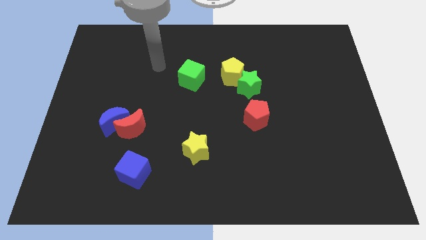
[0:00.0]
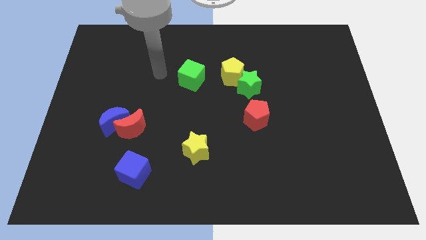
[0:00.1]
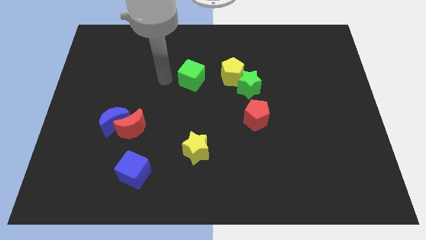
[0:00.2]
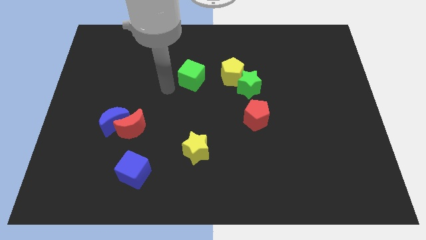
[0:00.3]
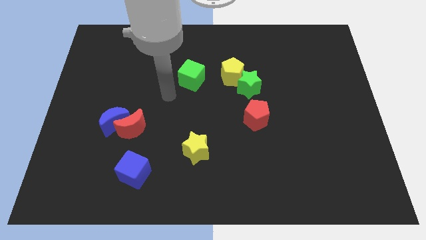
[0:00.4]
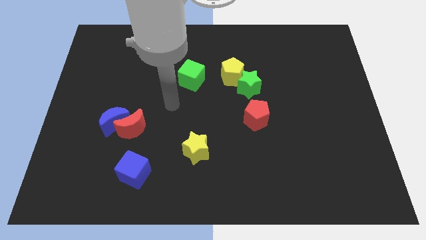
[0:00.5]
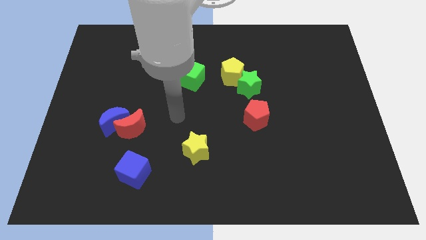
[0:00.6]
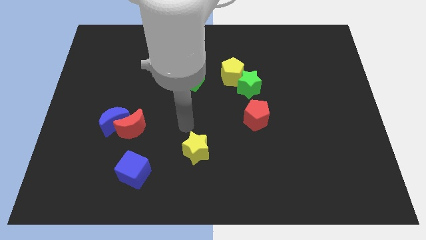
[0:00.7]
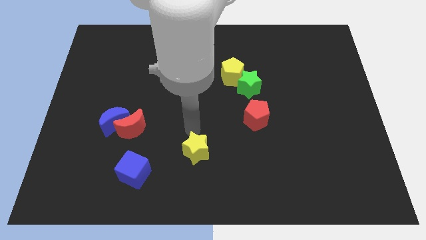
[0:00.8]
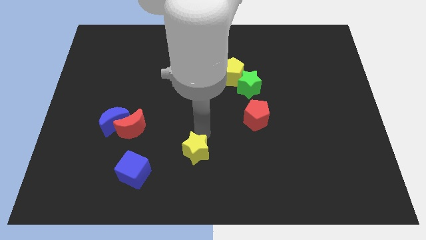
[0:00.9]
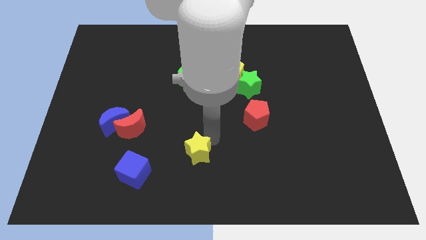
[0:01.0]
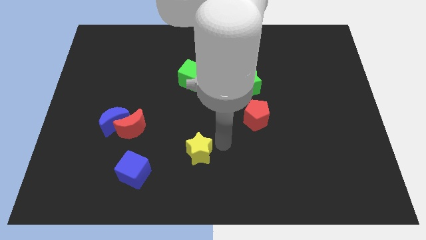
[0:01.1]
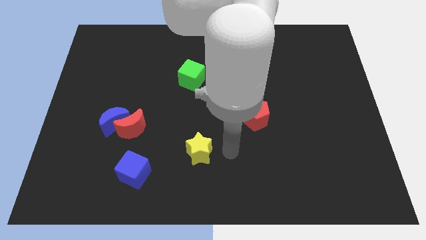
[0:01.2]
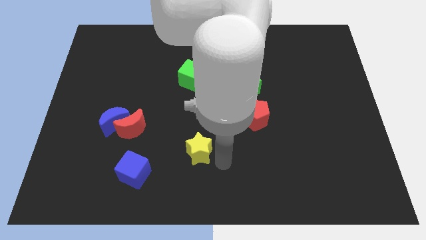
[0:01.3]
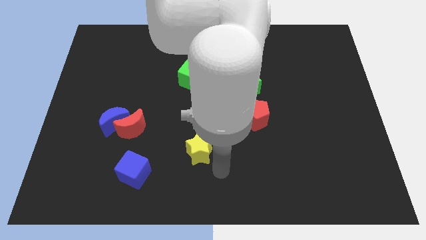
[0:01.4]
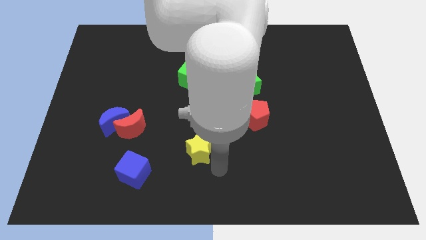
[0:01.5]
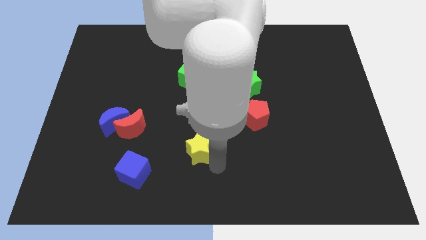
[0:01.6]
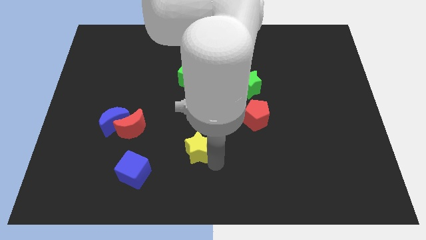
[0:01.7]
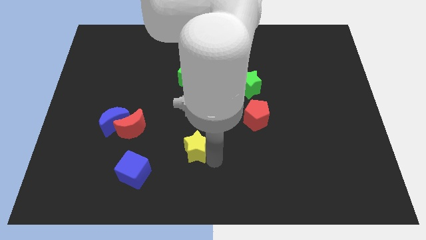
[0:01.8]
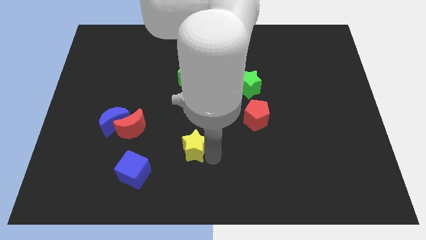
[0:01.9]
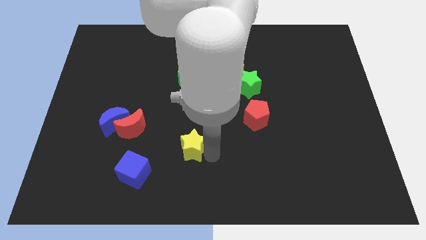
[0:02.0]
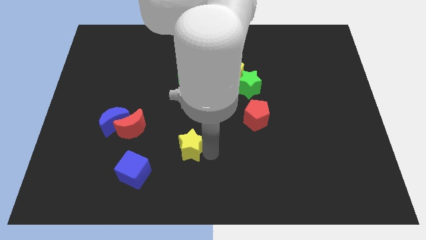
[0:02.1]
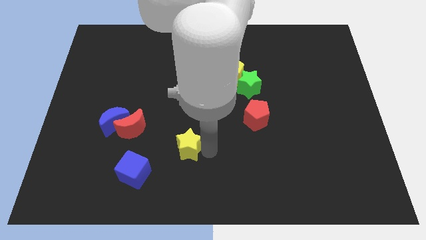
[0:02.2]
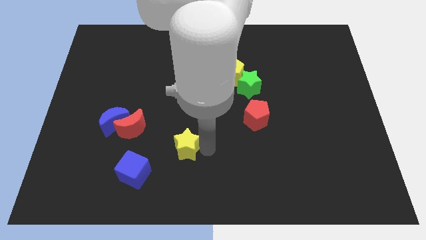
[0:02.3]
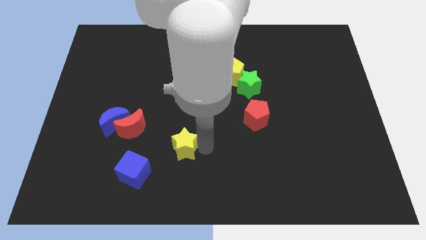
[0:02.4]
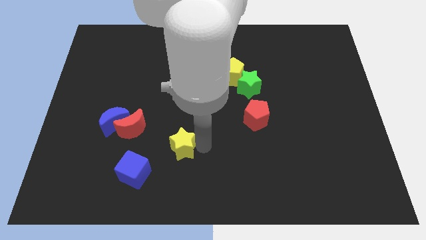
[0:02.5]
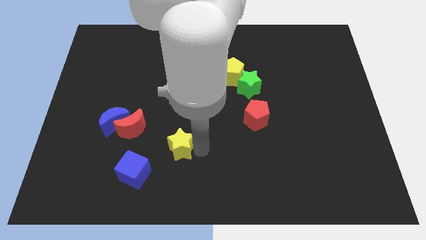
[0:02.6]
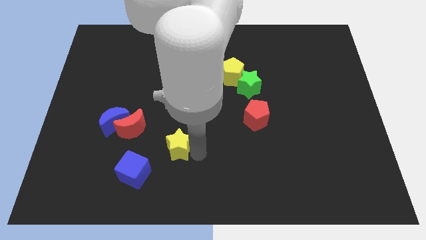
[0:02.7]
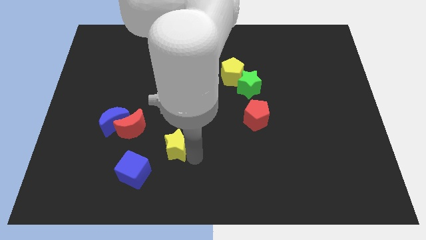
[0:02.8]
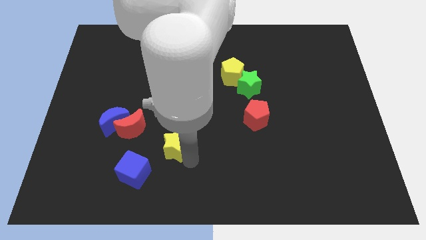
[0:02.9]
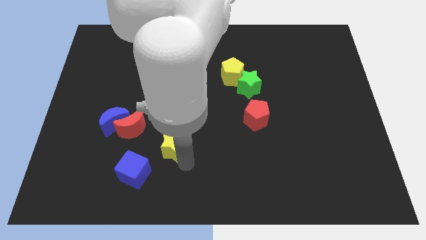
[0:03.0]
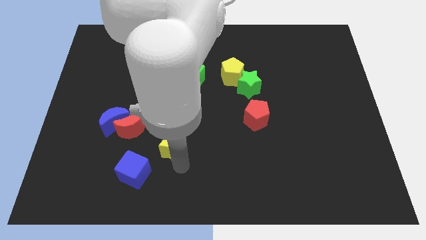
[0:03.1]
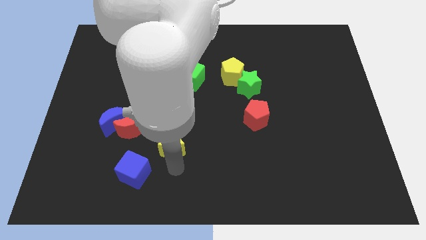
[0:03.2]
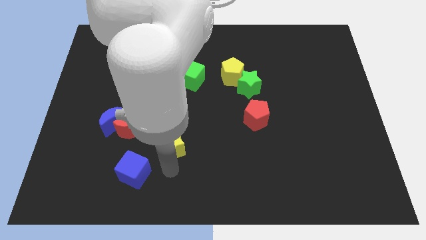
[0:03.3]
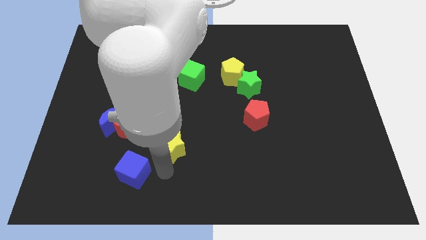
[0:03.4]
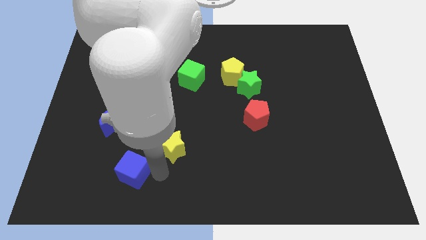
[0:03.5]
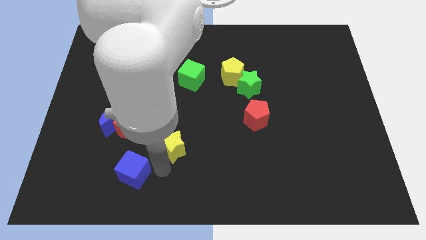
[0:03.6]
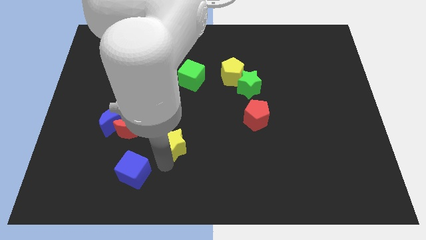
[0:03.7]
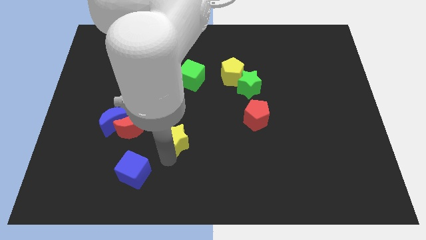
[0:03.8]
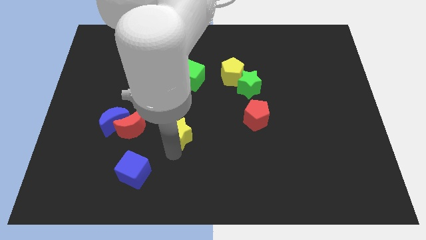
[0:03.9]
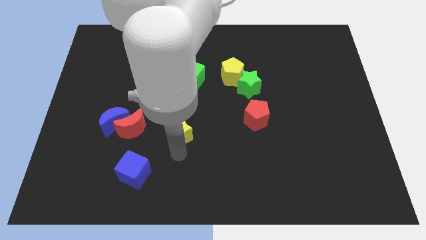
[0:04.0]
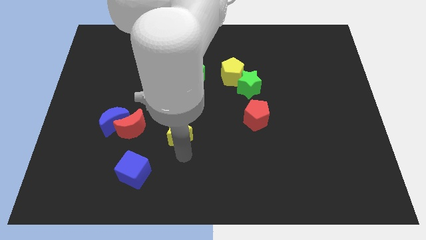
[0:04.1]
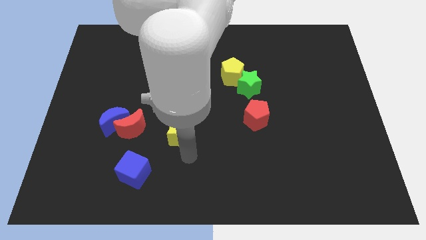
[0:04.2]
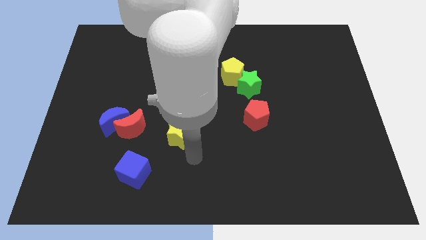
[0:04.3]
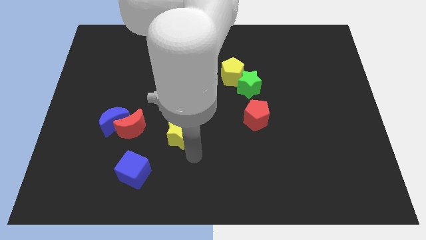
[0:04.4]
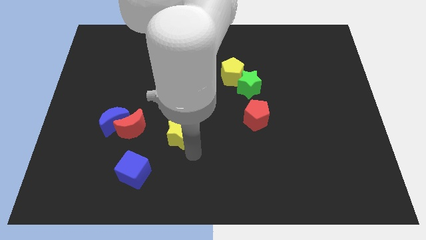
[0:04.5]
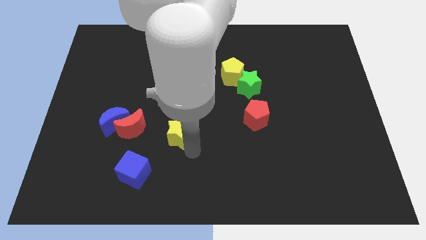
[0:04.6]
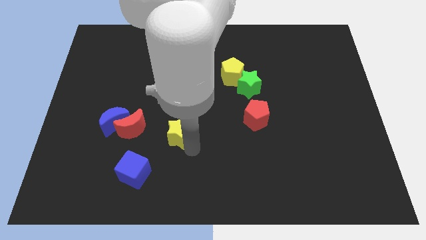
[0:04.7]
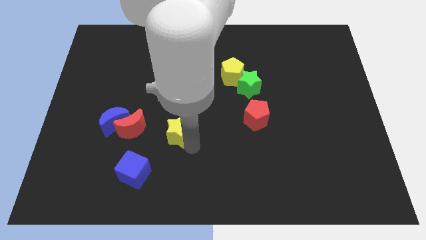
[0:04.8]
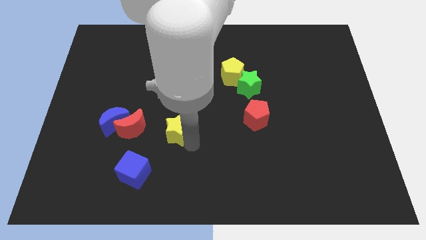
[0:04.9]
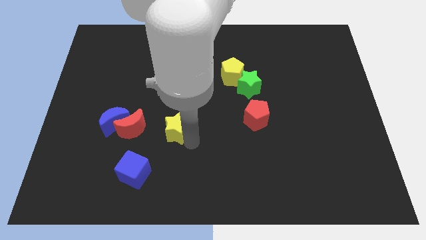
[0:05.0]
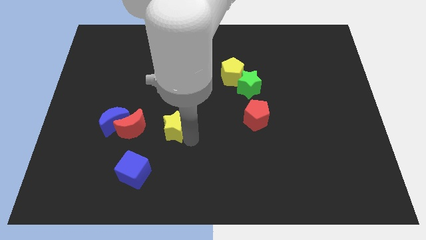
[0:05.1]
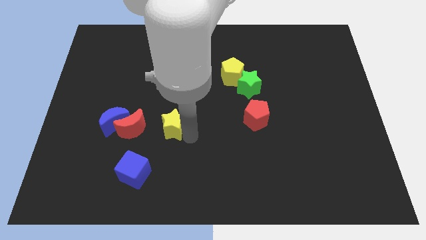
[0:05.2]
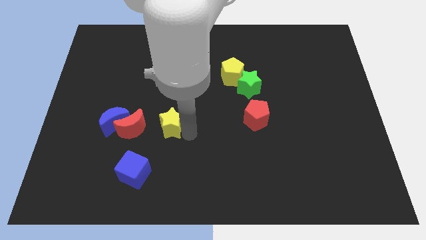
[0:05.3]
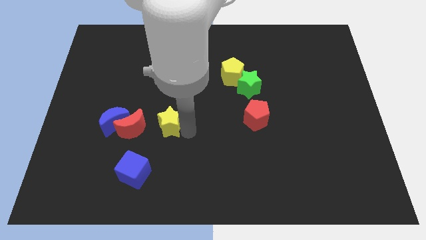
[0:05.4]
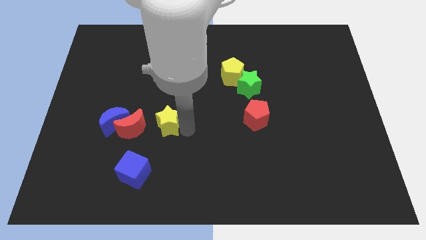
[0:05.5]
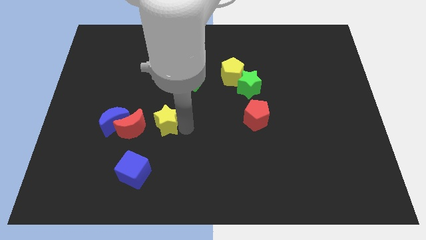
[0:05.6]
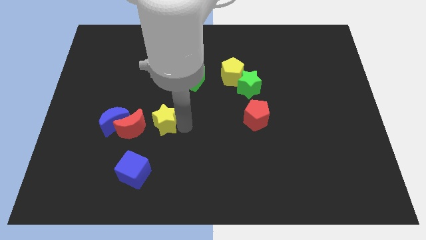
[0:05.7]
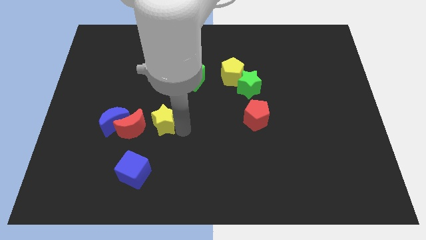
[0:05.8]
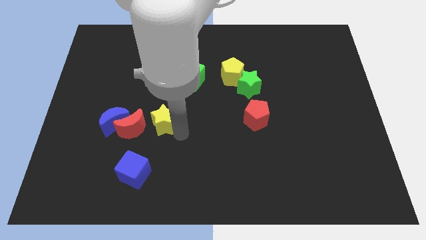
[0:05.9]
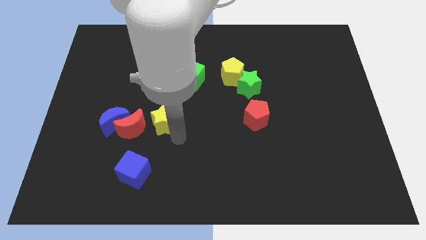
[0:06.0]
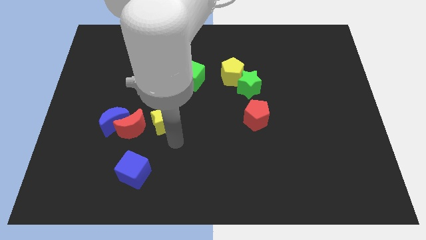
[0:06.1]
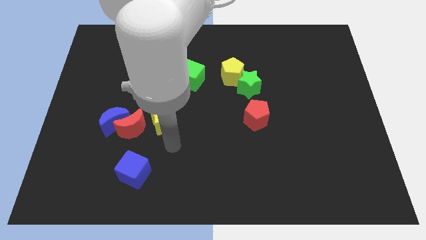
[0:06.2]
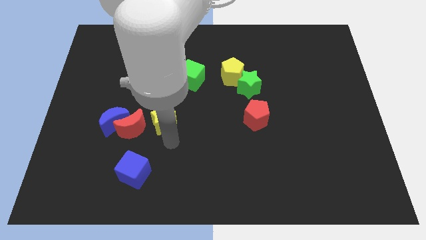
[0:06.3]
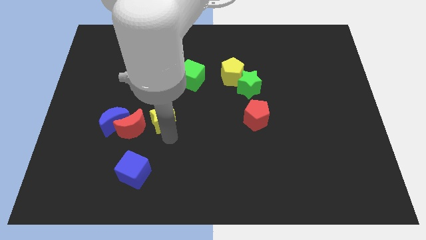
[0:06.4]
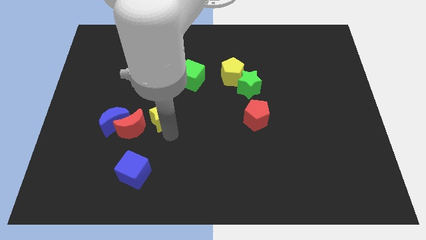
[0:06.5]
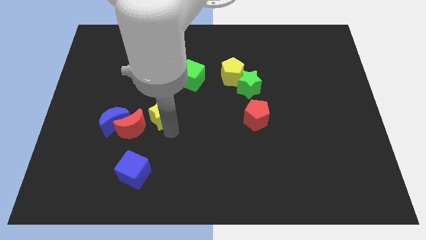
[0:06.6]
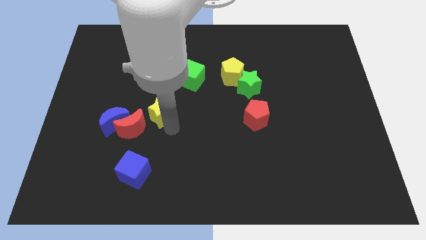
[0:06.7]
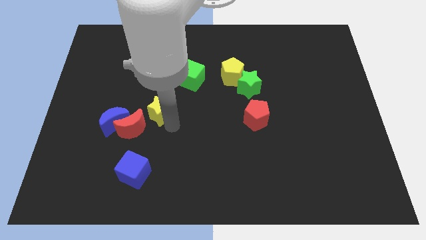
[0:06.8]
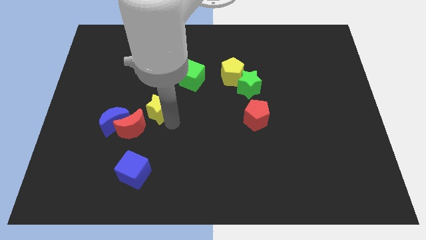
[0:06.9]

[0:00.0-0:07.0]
move the yellow star to the top right side of the blue moon

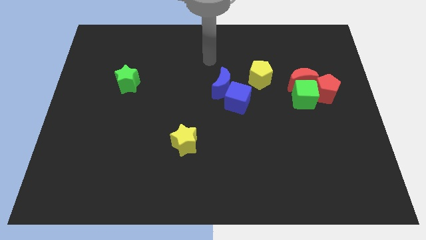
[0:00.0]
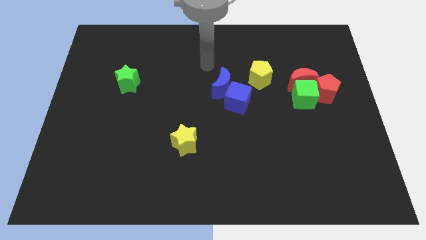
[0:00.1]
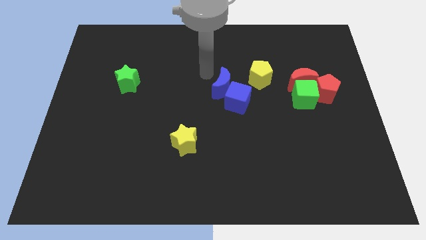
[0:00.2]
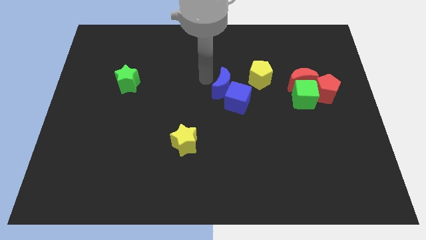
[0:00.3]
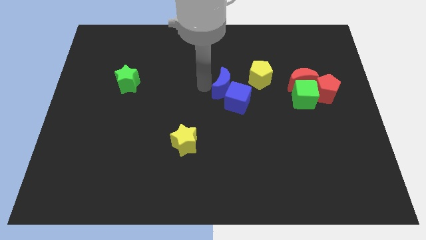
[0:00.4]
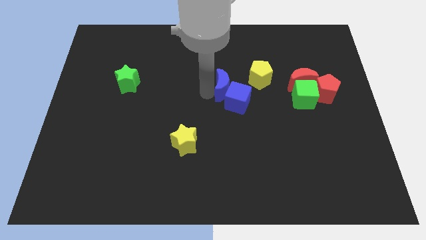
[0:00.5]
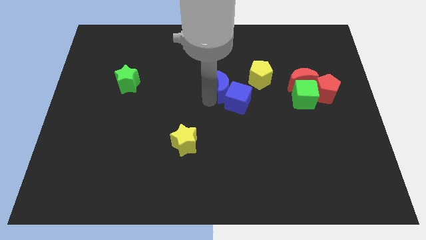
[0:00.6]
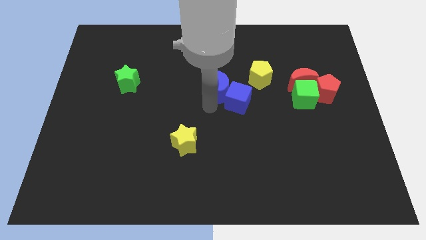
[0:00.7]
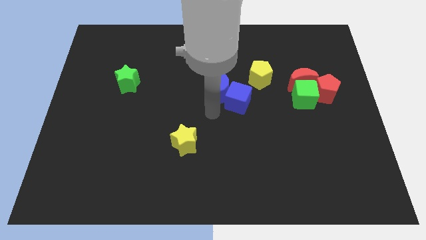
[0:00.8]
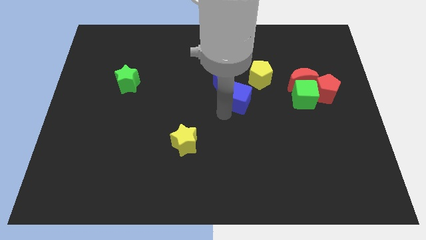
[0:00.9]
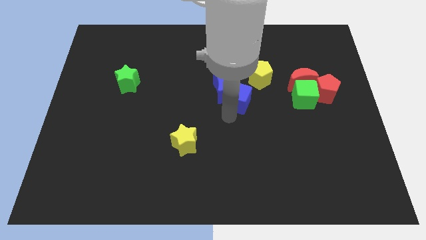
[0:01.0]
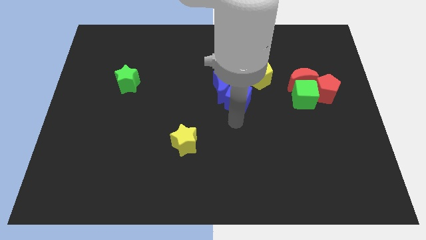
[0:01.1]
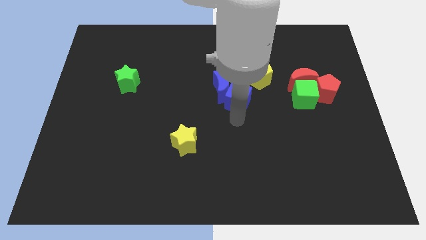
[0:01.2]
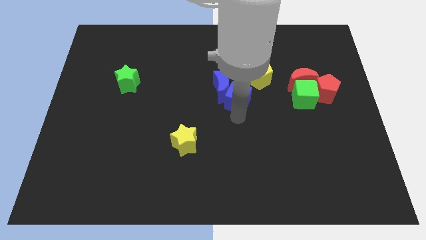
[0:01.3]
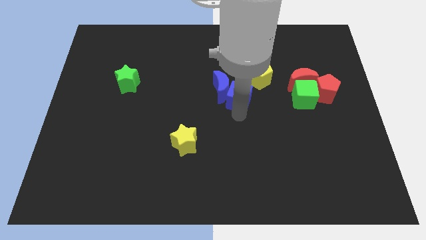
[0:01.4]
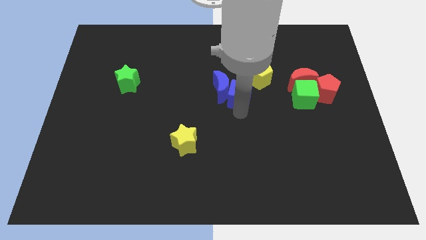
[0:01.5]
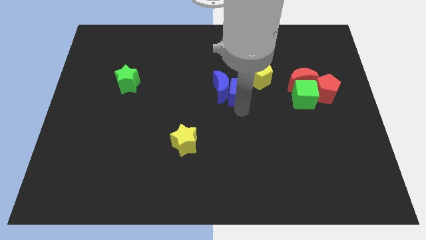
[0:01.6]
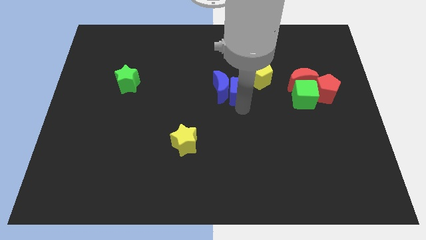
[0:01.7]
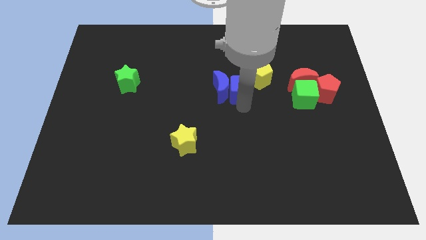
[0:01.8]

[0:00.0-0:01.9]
slide the blue cube left of the yellow pentagon
